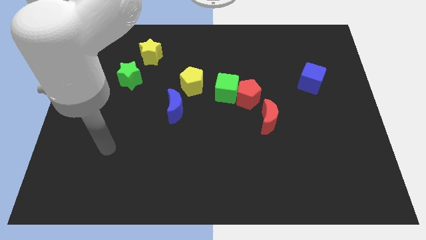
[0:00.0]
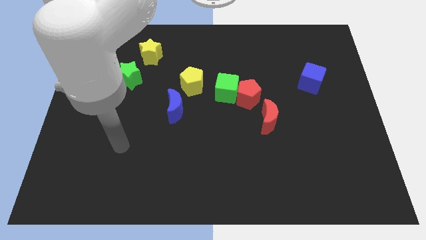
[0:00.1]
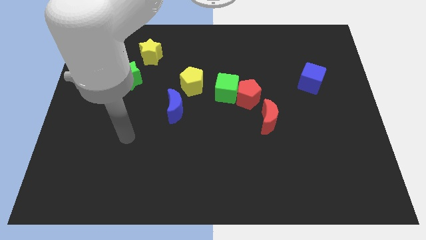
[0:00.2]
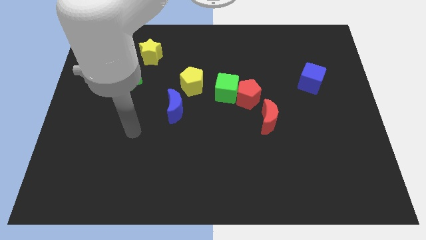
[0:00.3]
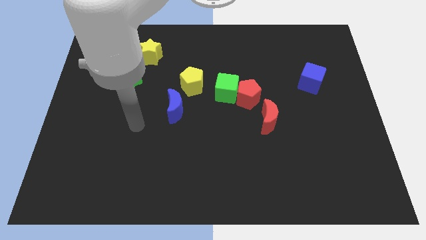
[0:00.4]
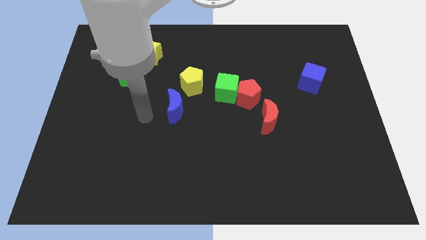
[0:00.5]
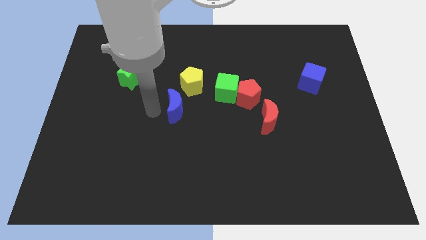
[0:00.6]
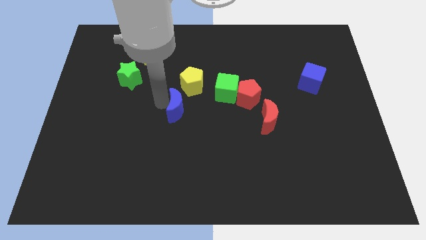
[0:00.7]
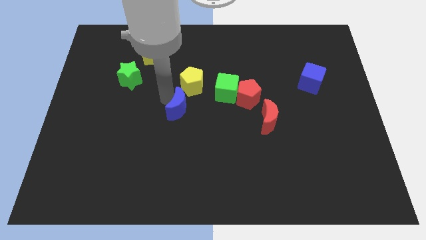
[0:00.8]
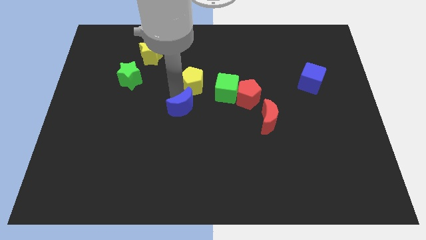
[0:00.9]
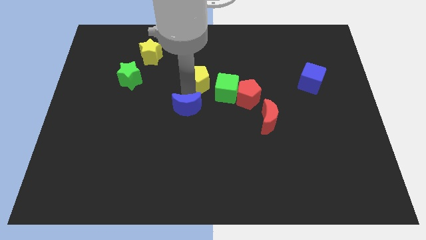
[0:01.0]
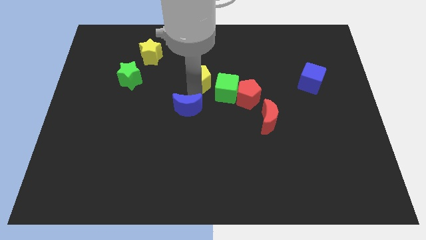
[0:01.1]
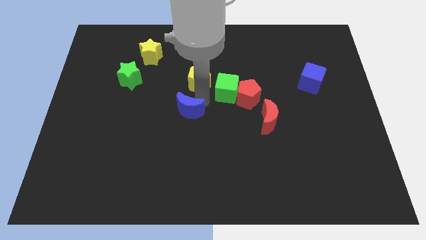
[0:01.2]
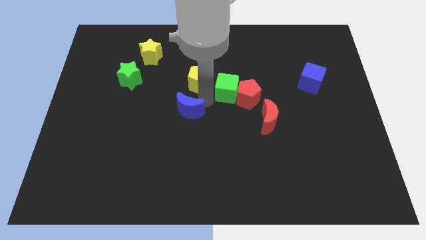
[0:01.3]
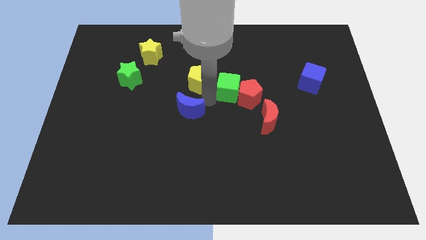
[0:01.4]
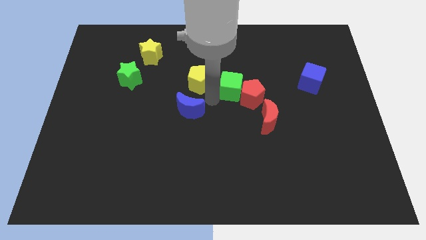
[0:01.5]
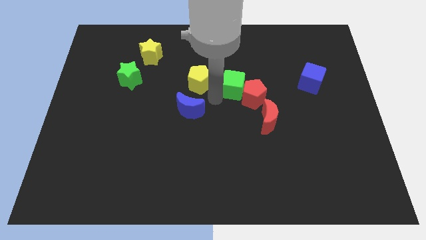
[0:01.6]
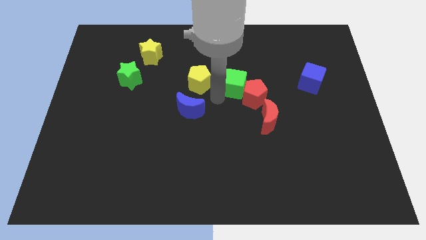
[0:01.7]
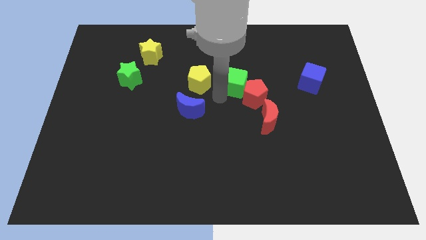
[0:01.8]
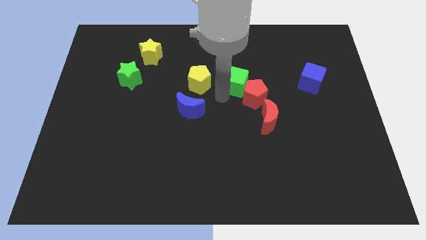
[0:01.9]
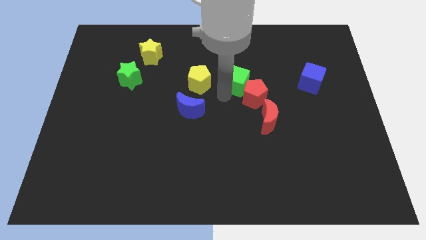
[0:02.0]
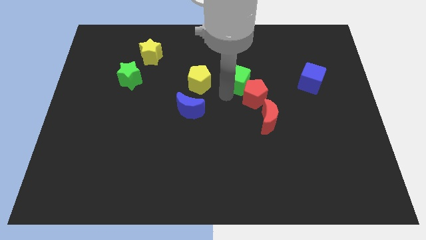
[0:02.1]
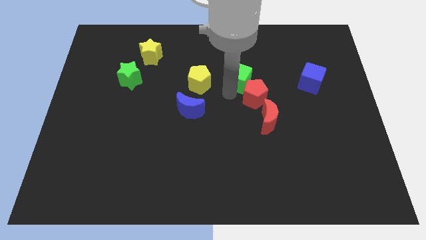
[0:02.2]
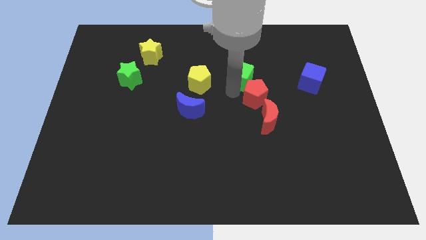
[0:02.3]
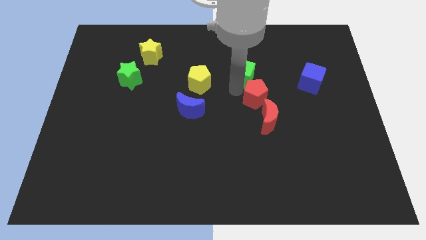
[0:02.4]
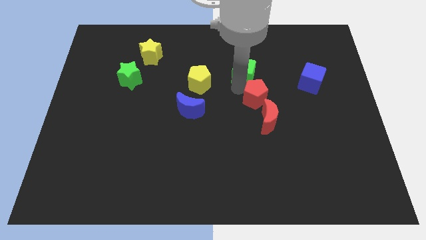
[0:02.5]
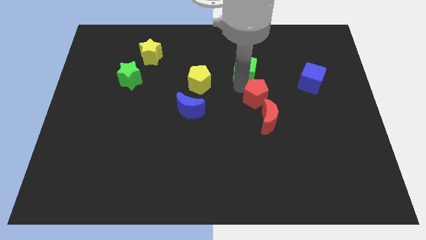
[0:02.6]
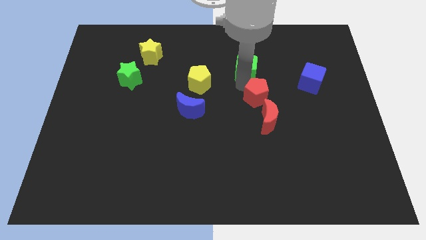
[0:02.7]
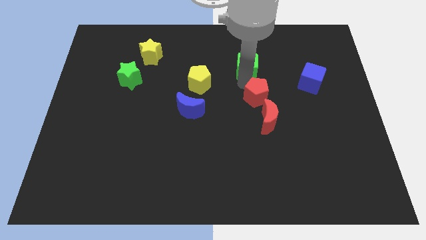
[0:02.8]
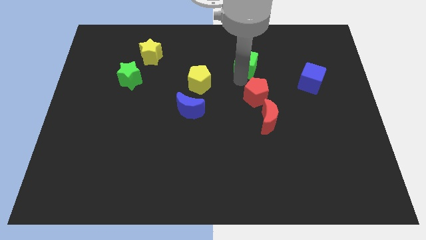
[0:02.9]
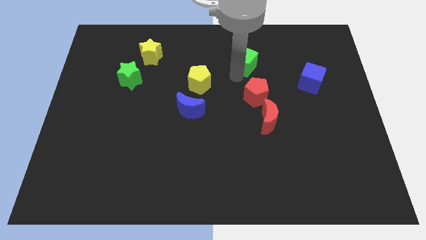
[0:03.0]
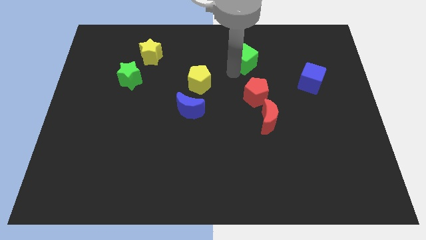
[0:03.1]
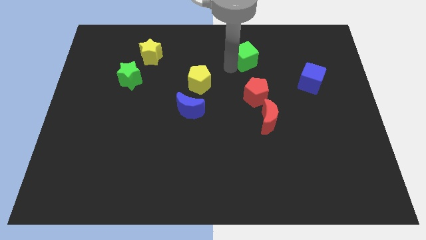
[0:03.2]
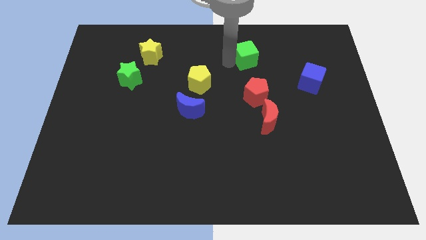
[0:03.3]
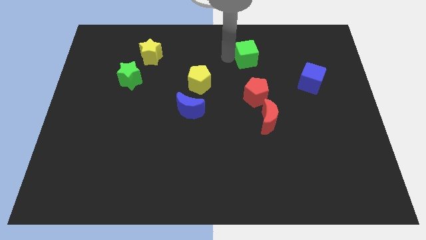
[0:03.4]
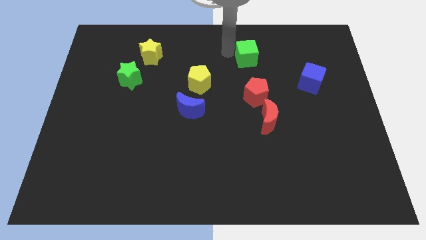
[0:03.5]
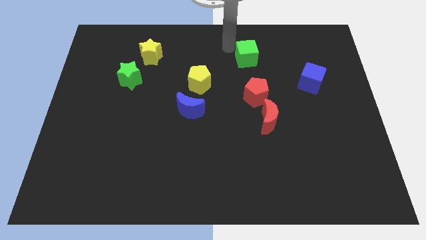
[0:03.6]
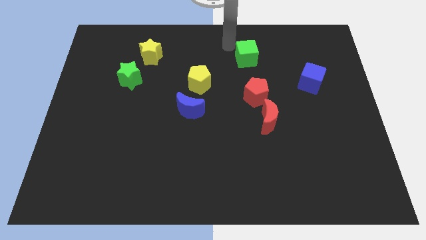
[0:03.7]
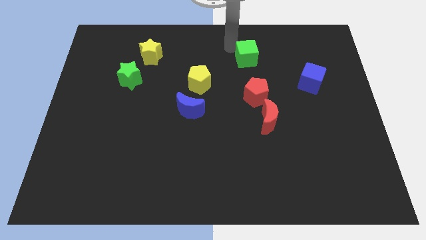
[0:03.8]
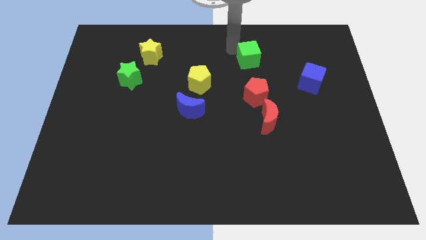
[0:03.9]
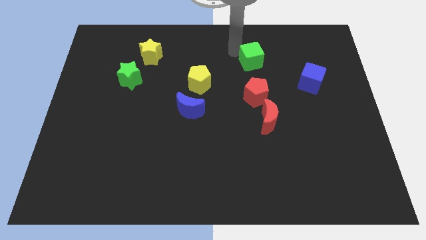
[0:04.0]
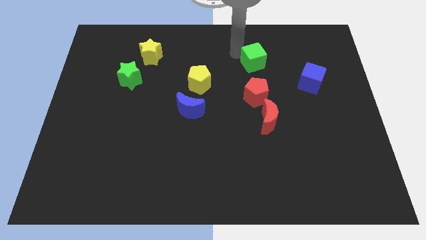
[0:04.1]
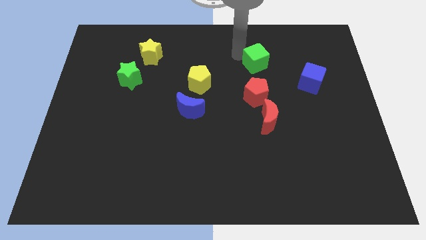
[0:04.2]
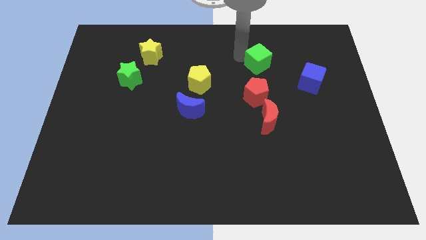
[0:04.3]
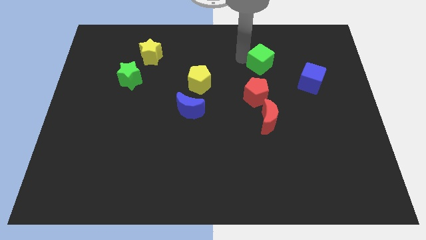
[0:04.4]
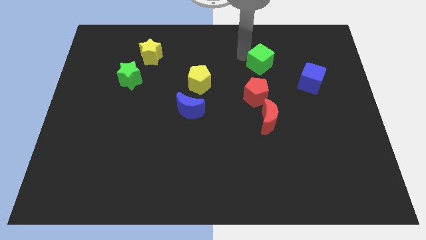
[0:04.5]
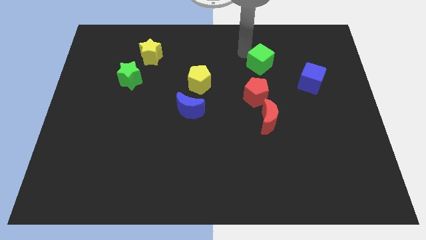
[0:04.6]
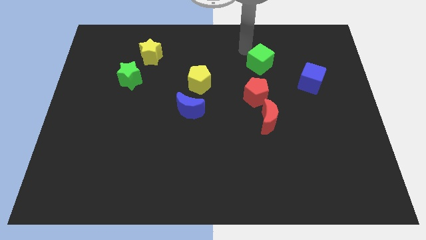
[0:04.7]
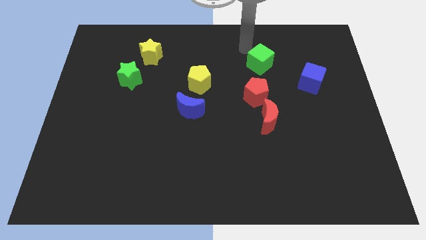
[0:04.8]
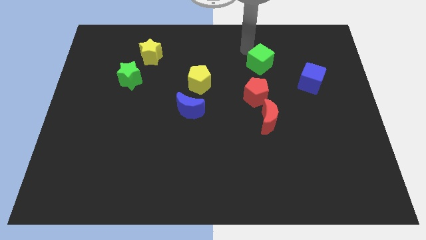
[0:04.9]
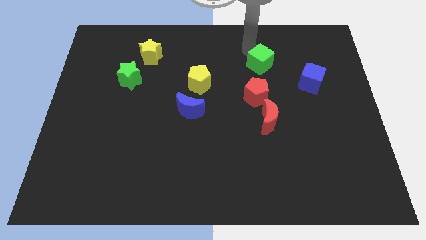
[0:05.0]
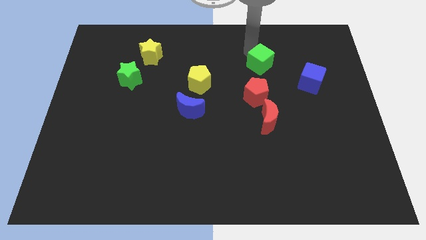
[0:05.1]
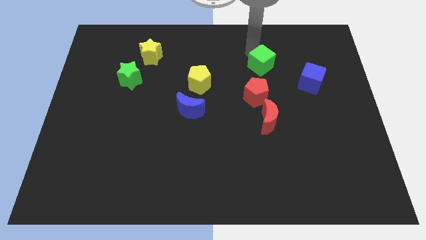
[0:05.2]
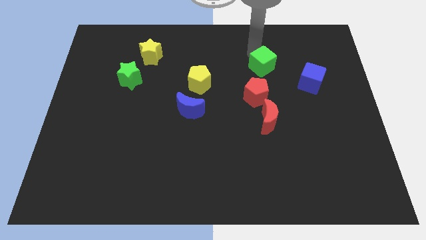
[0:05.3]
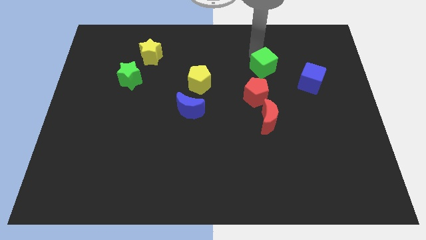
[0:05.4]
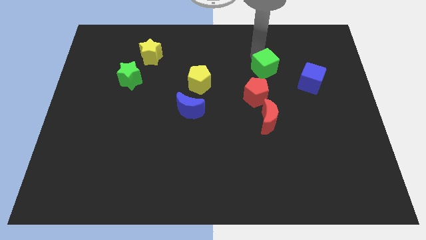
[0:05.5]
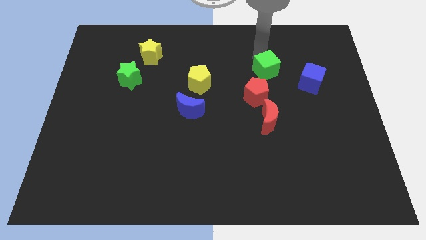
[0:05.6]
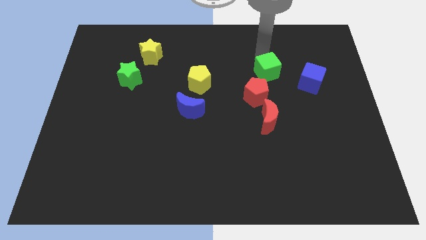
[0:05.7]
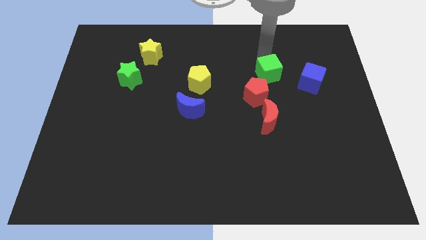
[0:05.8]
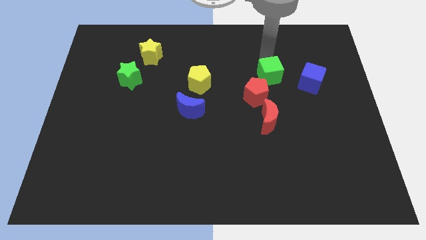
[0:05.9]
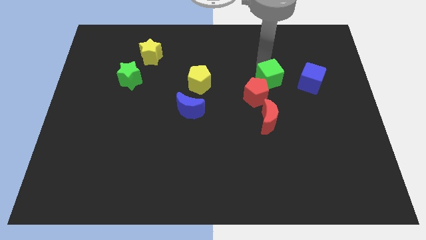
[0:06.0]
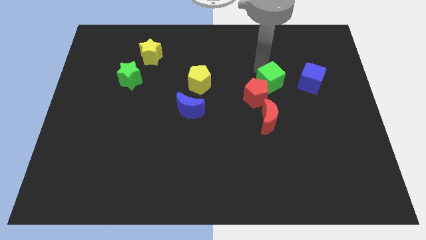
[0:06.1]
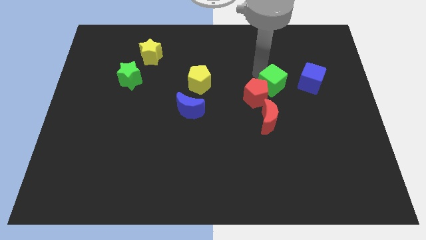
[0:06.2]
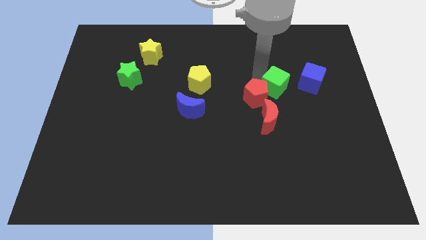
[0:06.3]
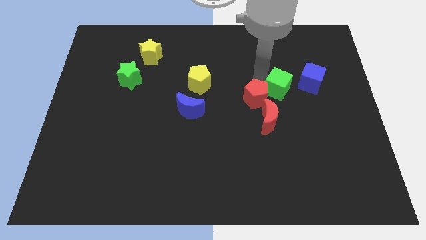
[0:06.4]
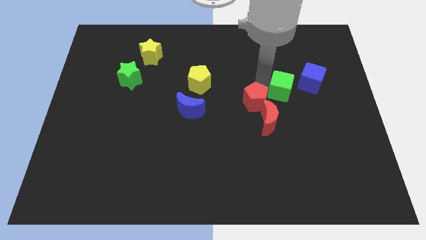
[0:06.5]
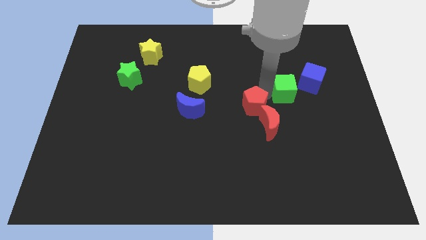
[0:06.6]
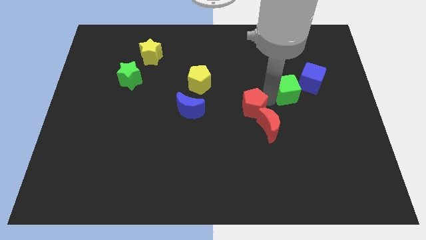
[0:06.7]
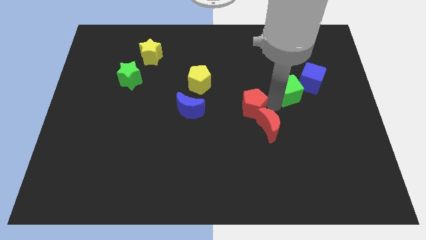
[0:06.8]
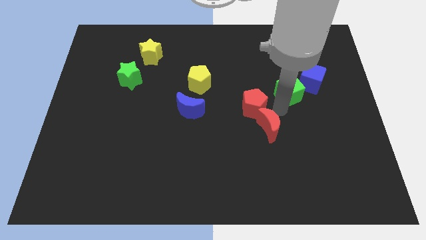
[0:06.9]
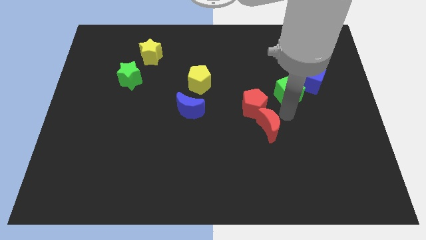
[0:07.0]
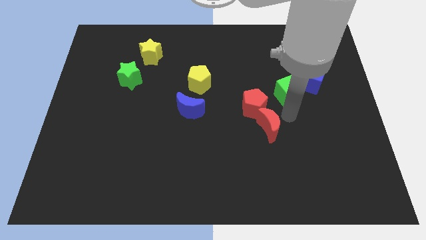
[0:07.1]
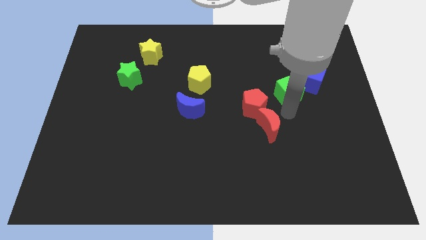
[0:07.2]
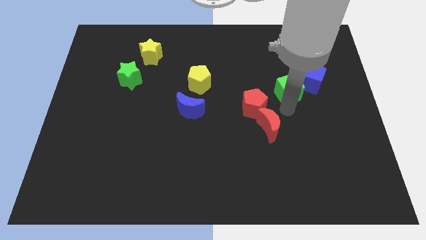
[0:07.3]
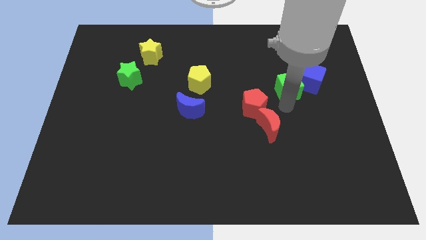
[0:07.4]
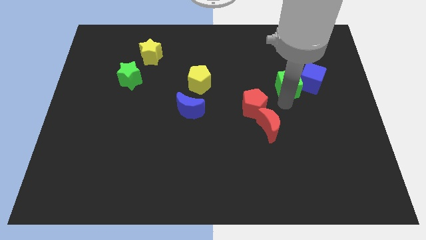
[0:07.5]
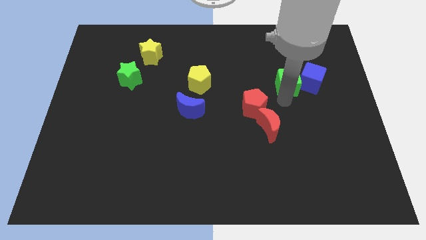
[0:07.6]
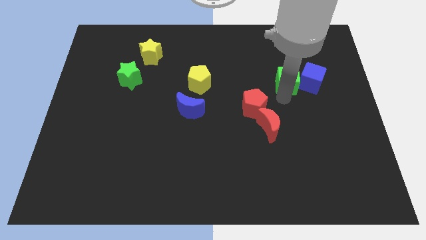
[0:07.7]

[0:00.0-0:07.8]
move the green cube to the top left side of the blue cube
